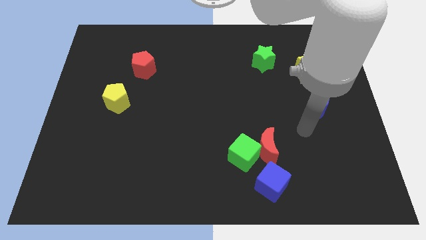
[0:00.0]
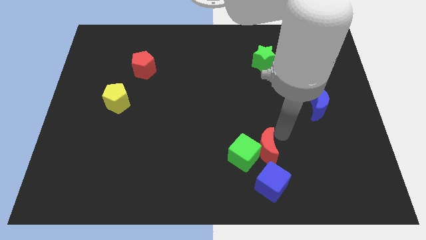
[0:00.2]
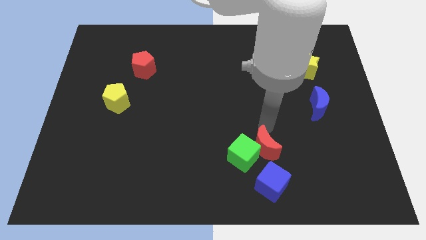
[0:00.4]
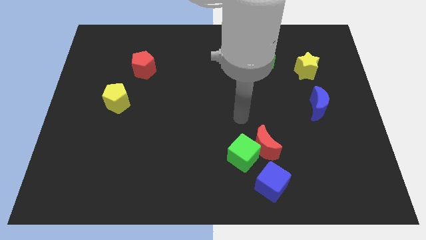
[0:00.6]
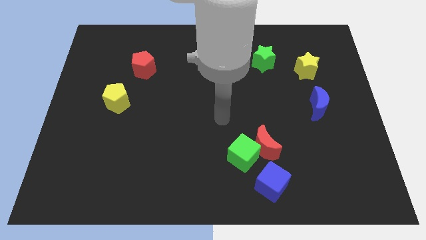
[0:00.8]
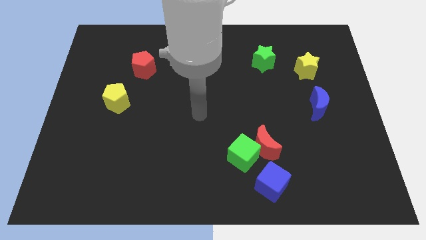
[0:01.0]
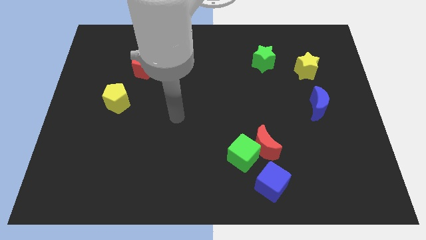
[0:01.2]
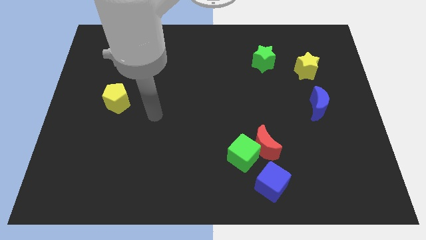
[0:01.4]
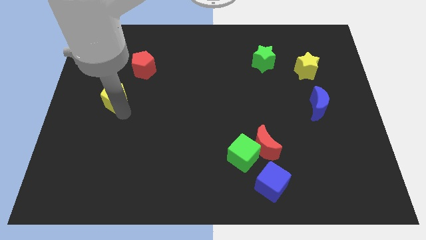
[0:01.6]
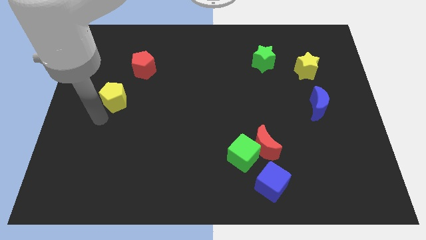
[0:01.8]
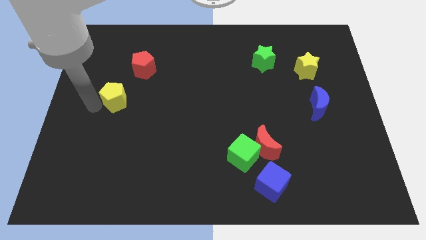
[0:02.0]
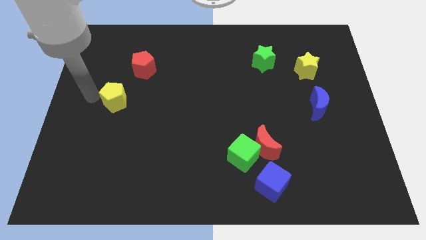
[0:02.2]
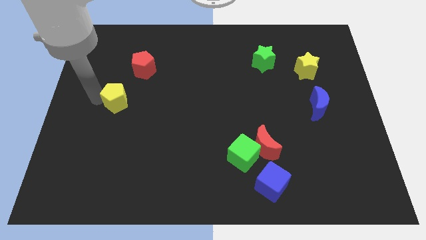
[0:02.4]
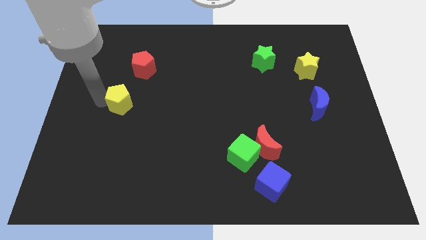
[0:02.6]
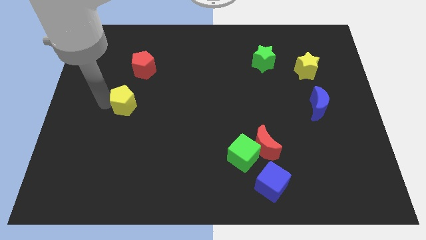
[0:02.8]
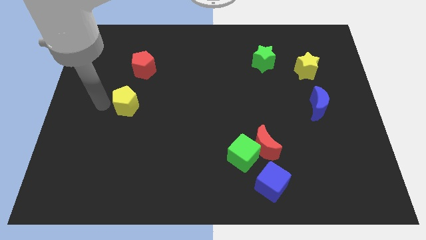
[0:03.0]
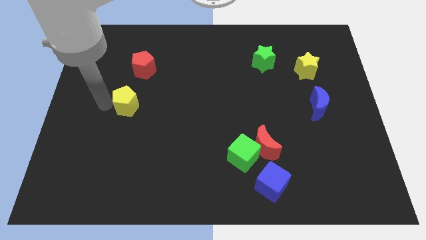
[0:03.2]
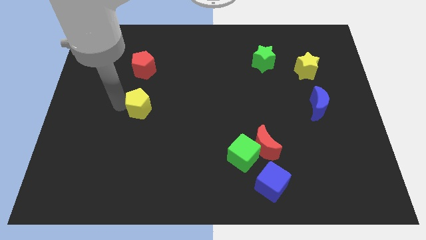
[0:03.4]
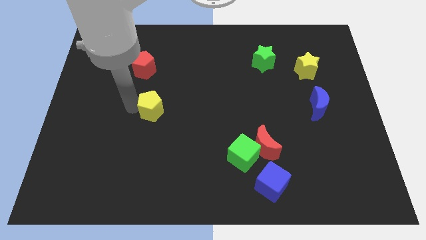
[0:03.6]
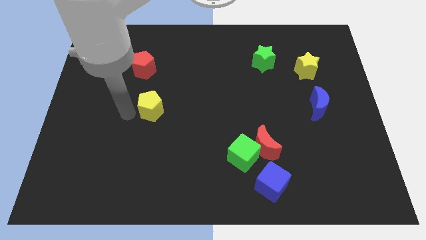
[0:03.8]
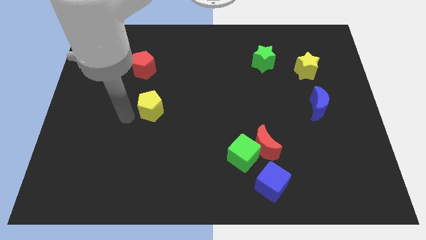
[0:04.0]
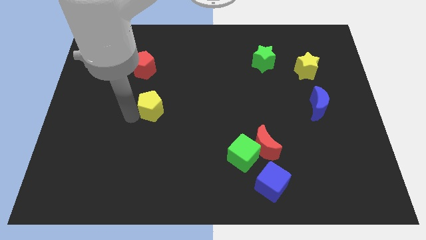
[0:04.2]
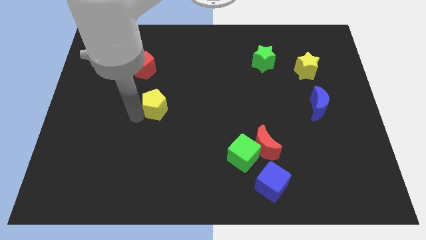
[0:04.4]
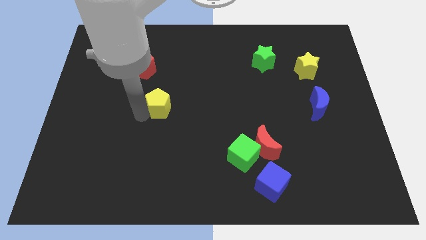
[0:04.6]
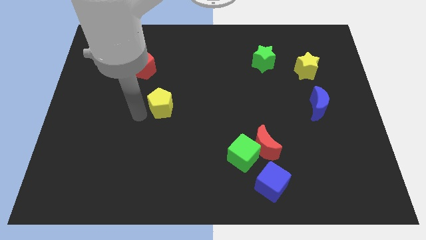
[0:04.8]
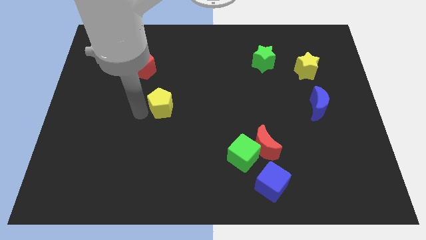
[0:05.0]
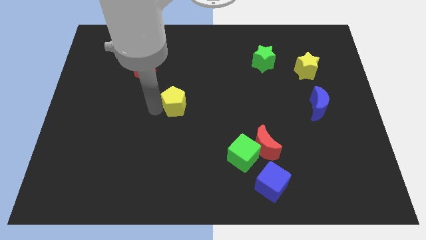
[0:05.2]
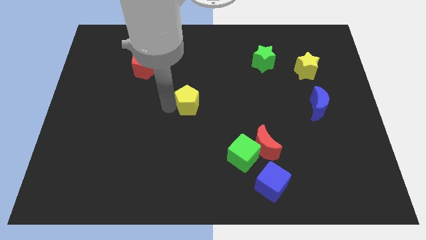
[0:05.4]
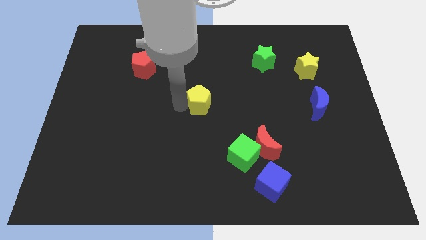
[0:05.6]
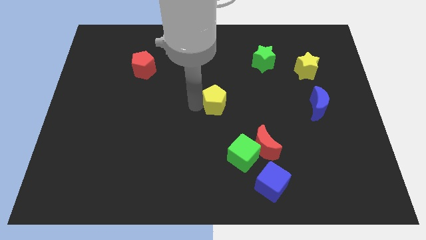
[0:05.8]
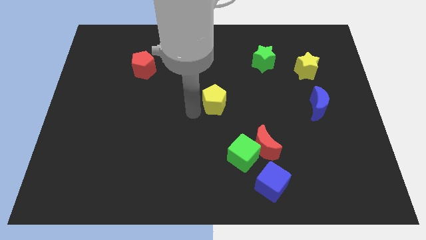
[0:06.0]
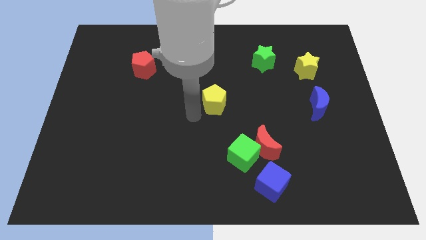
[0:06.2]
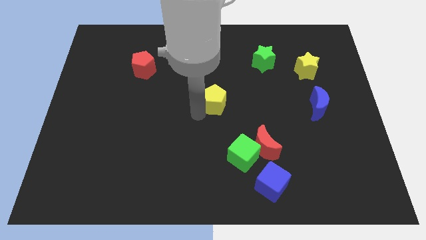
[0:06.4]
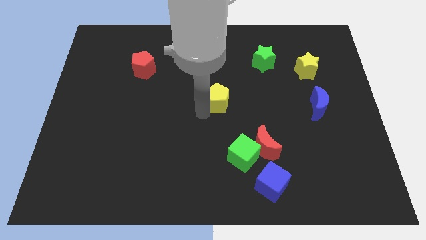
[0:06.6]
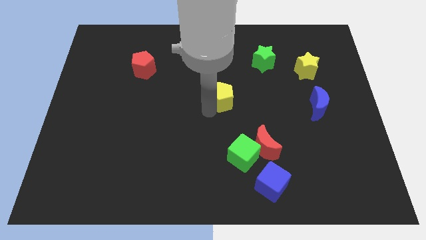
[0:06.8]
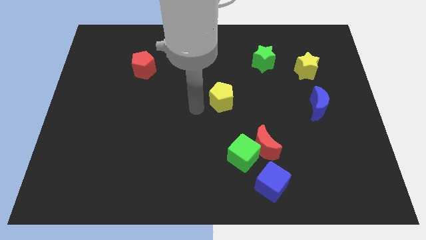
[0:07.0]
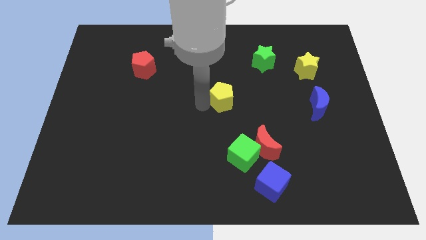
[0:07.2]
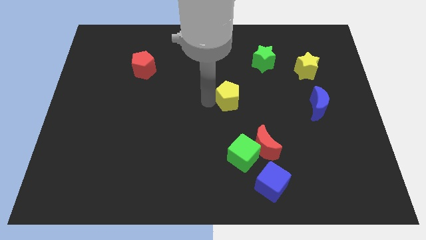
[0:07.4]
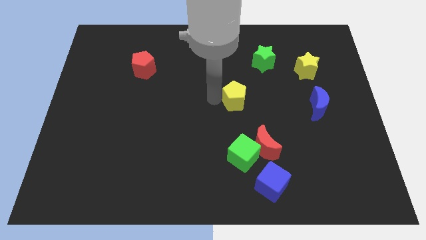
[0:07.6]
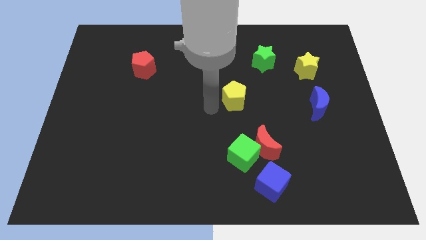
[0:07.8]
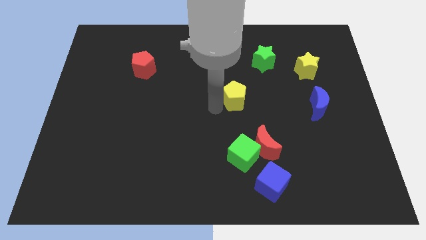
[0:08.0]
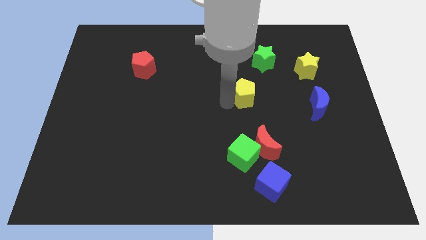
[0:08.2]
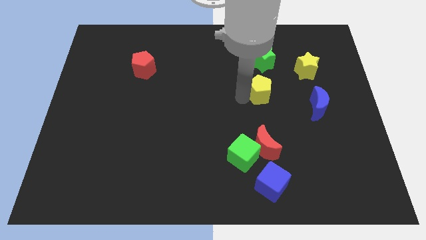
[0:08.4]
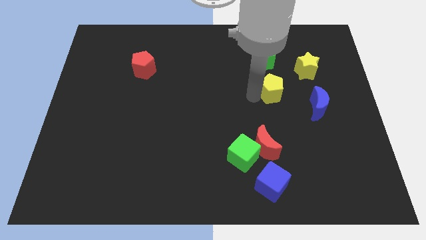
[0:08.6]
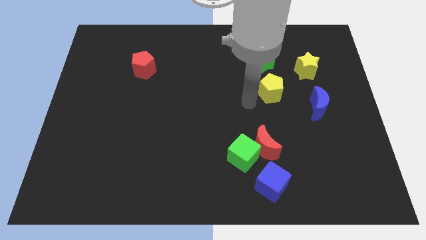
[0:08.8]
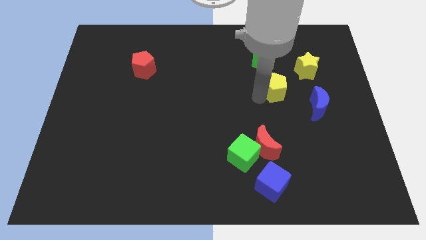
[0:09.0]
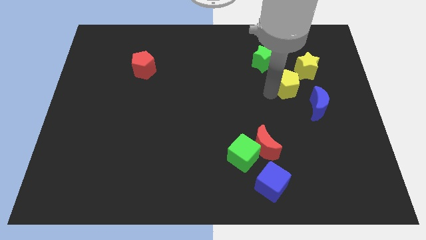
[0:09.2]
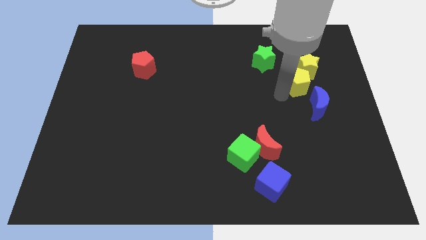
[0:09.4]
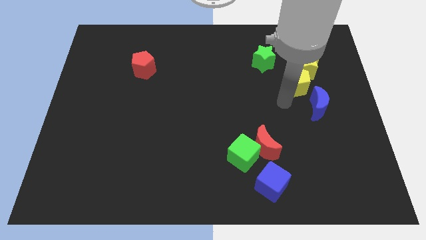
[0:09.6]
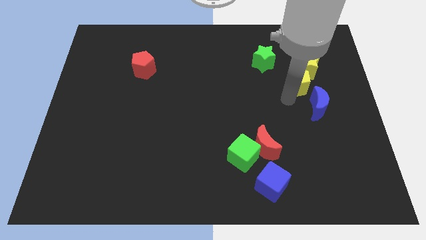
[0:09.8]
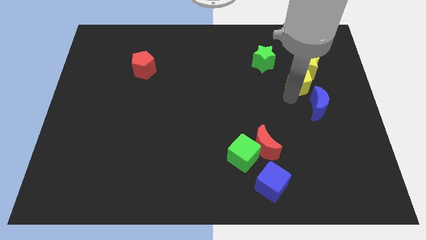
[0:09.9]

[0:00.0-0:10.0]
put the yellow pentagon next to the yellow star

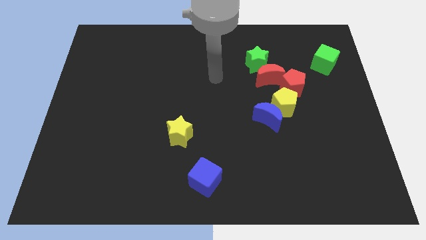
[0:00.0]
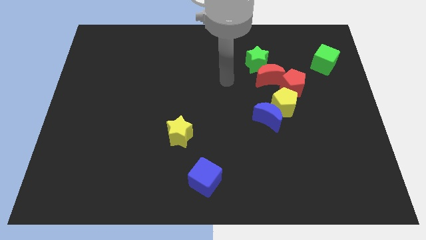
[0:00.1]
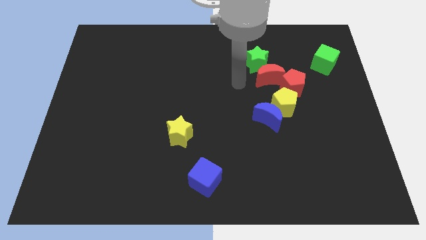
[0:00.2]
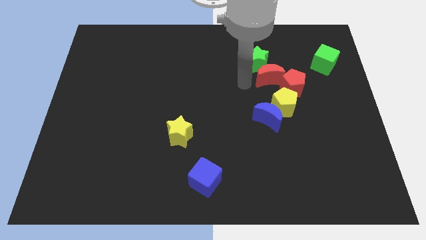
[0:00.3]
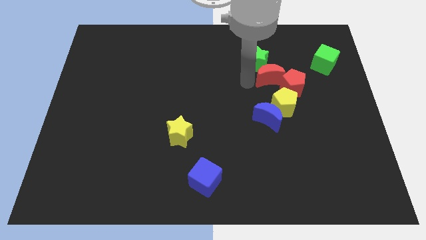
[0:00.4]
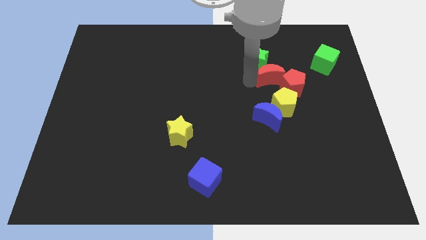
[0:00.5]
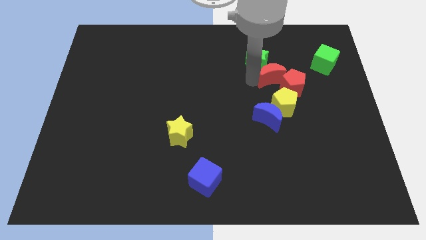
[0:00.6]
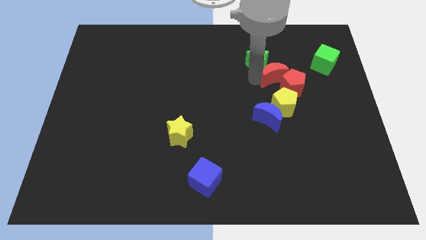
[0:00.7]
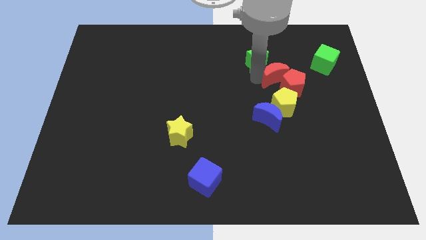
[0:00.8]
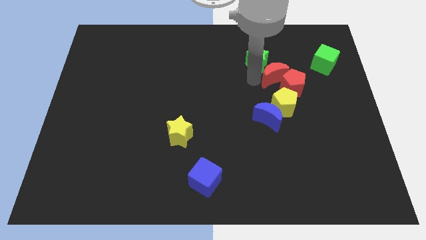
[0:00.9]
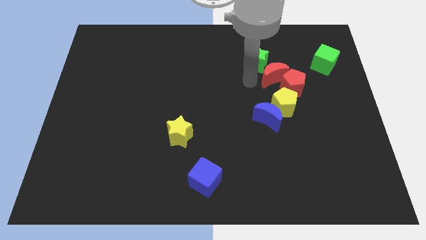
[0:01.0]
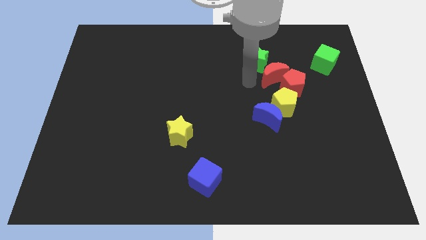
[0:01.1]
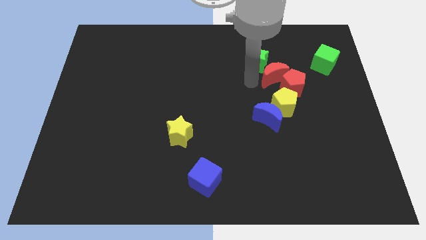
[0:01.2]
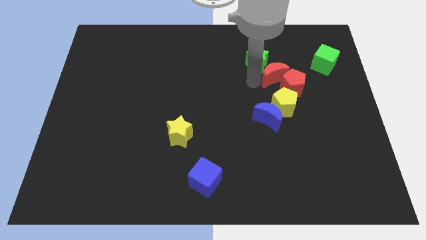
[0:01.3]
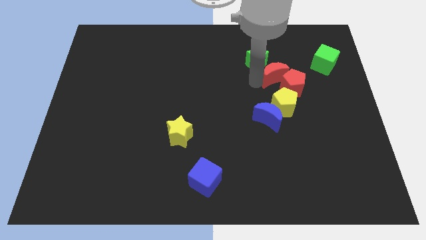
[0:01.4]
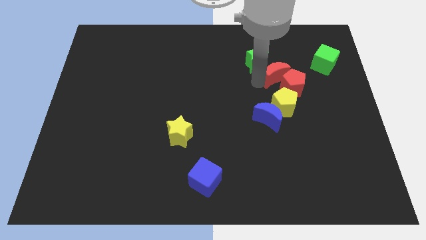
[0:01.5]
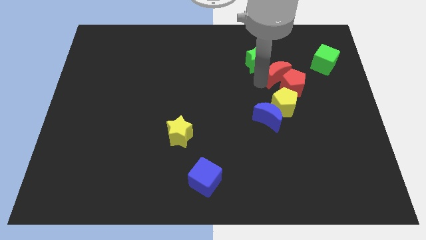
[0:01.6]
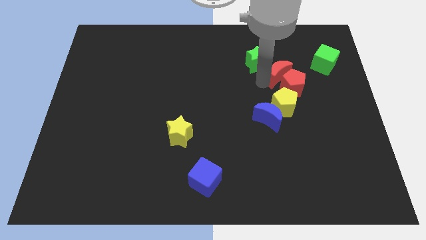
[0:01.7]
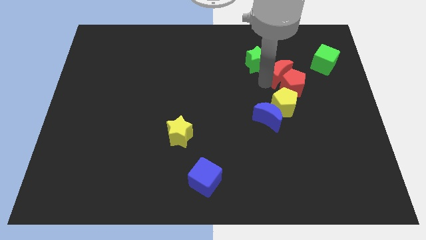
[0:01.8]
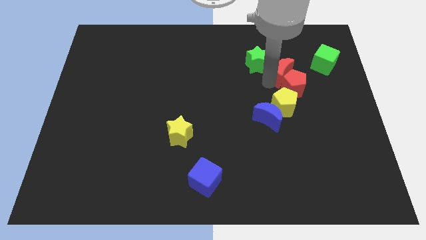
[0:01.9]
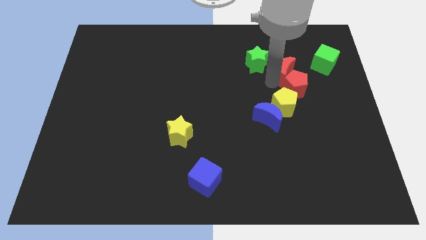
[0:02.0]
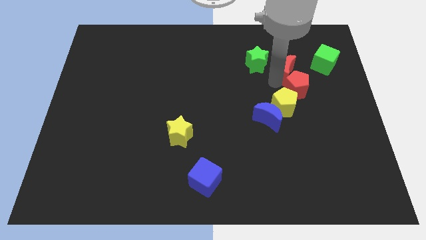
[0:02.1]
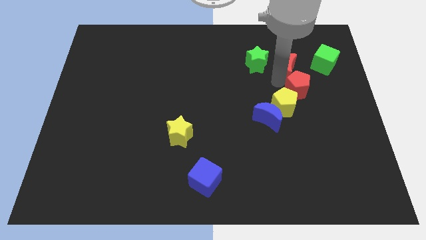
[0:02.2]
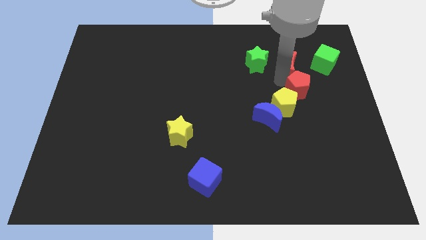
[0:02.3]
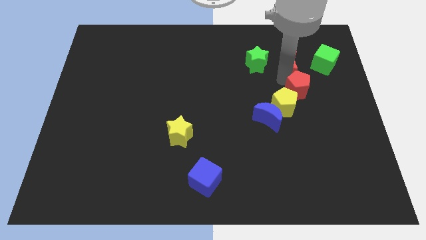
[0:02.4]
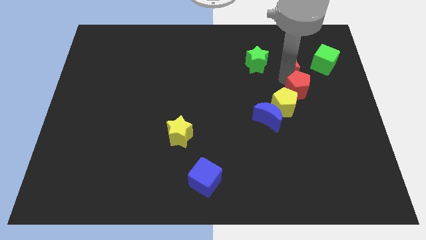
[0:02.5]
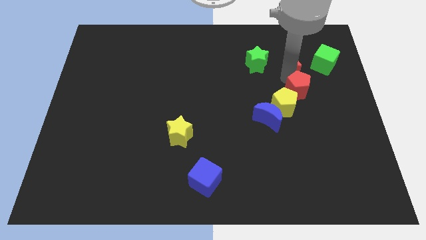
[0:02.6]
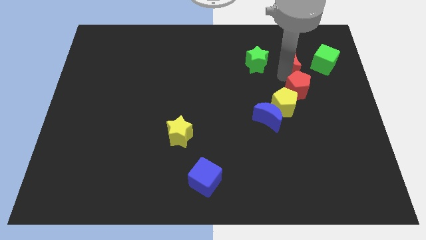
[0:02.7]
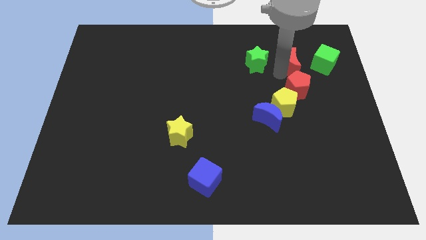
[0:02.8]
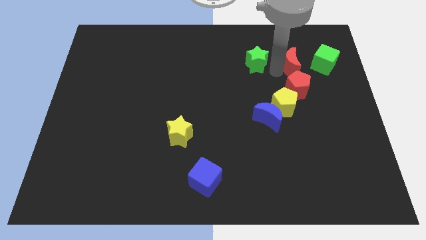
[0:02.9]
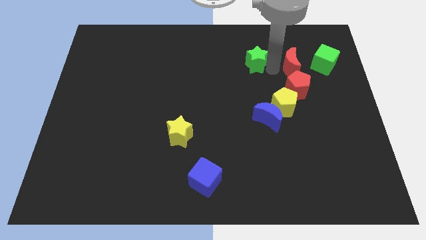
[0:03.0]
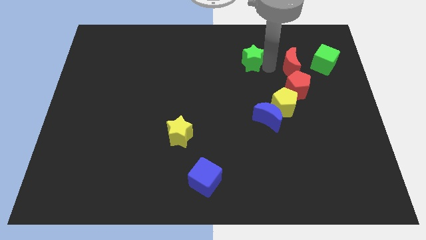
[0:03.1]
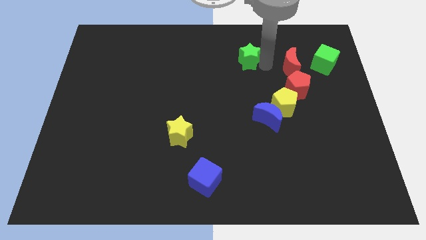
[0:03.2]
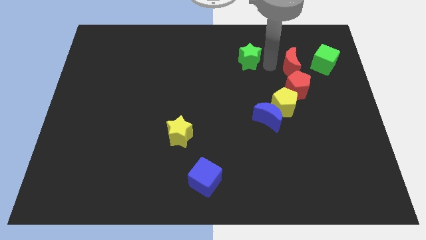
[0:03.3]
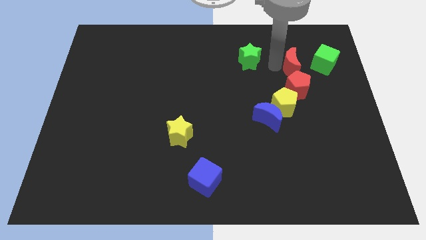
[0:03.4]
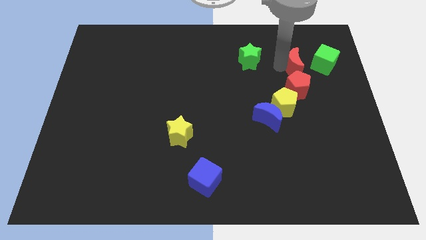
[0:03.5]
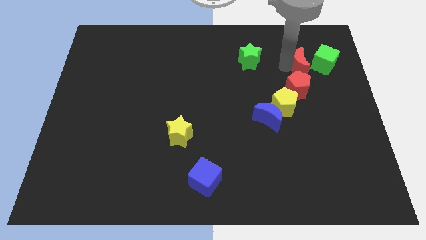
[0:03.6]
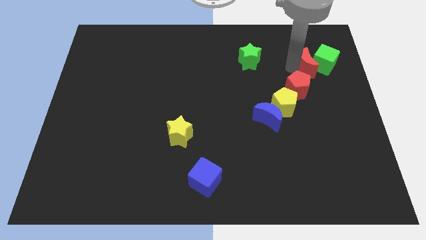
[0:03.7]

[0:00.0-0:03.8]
put the red moon to the green cube
